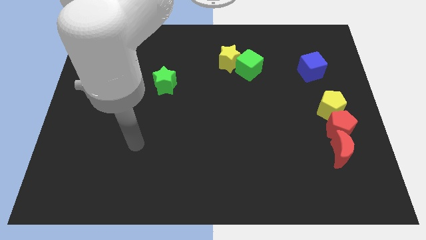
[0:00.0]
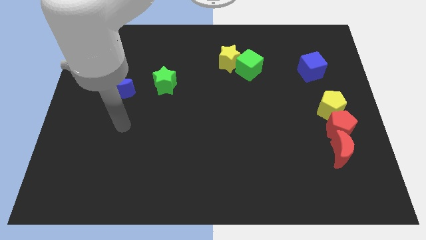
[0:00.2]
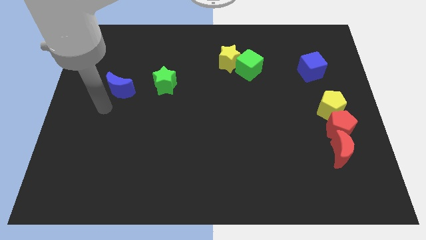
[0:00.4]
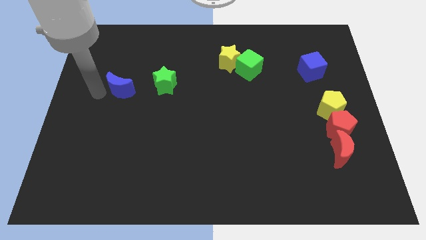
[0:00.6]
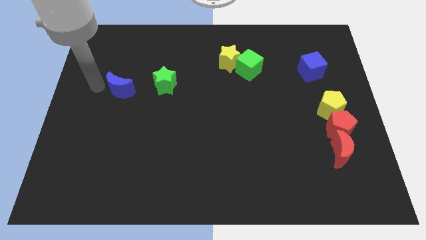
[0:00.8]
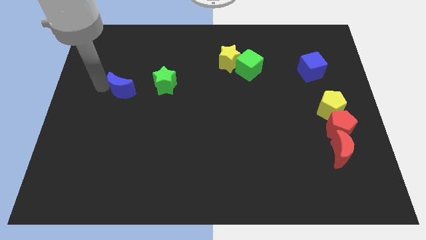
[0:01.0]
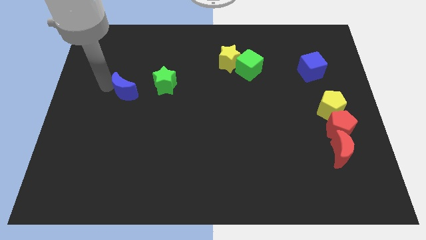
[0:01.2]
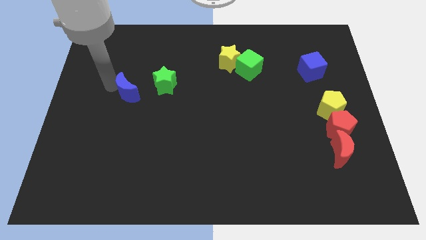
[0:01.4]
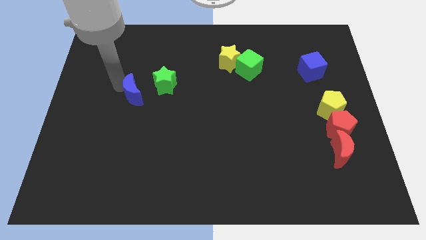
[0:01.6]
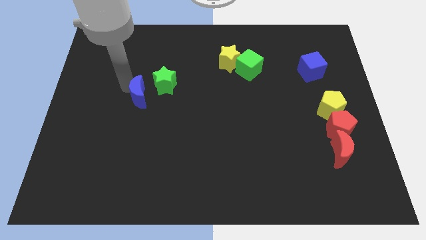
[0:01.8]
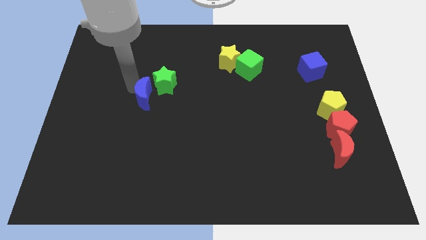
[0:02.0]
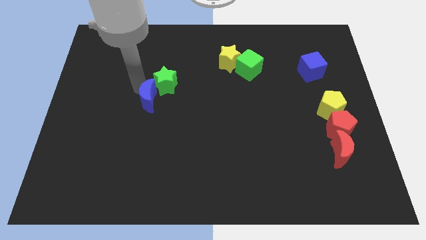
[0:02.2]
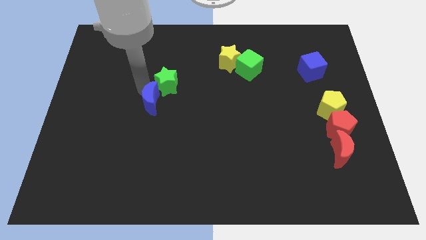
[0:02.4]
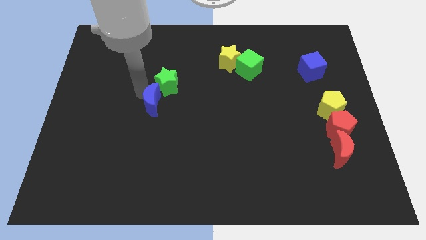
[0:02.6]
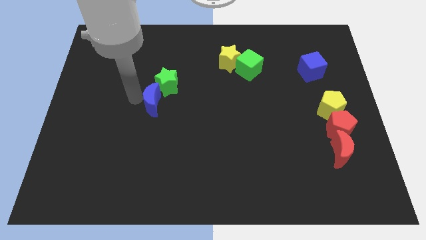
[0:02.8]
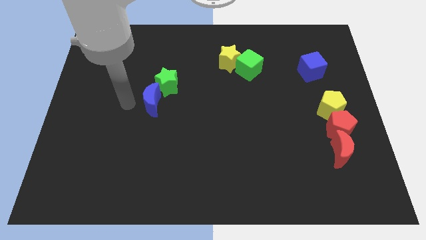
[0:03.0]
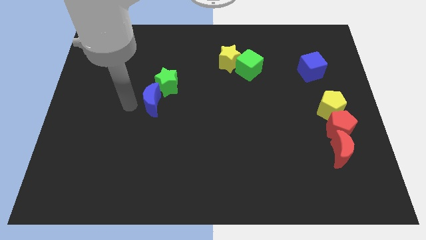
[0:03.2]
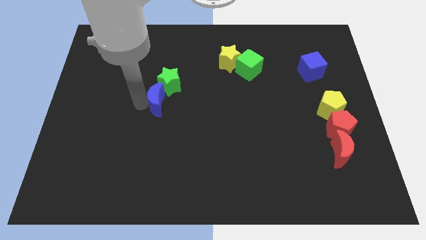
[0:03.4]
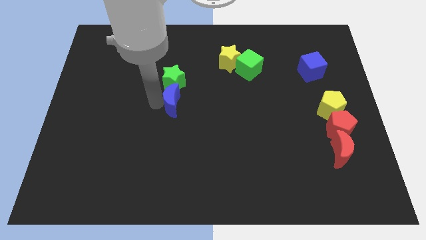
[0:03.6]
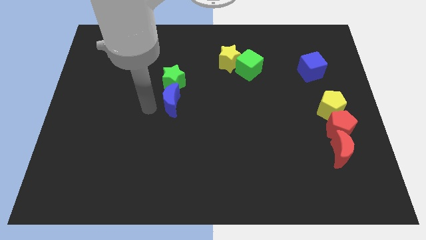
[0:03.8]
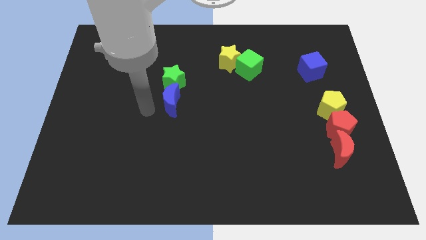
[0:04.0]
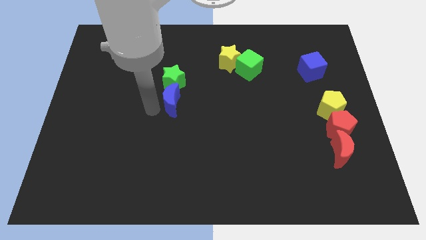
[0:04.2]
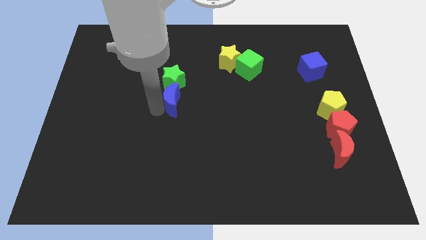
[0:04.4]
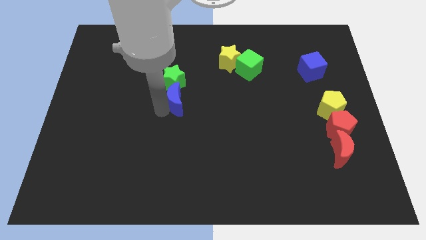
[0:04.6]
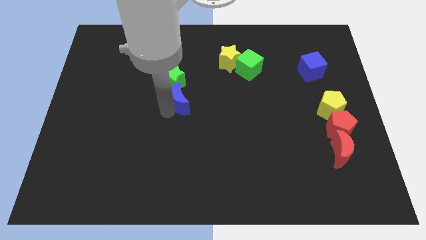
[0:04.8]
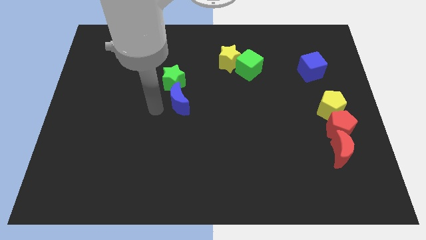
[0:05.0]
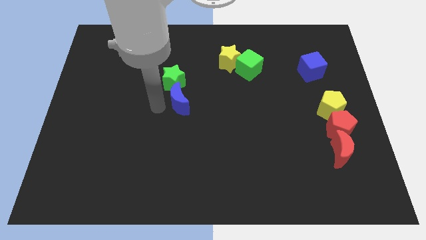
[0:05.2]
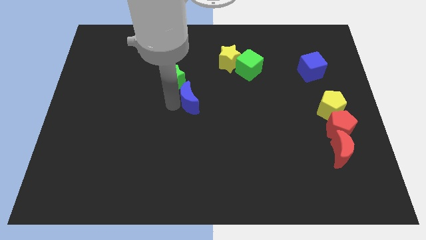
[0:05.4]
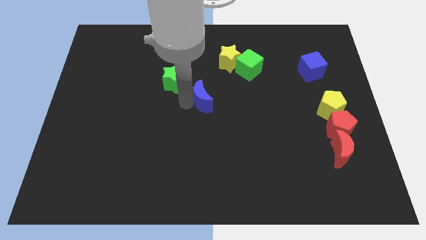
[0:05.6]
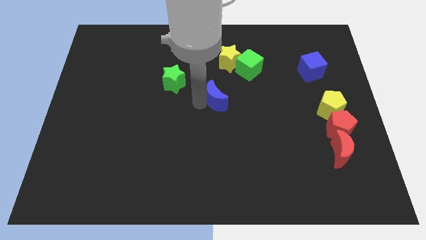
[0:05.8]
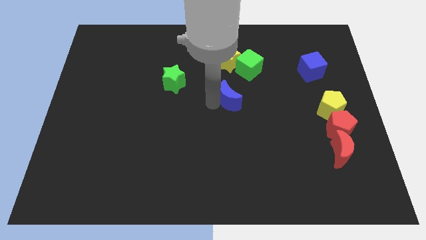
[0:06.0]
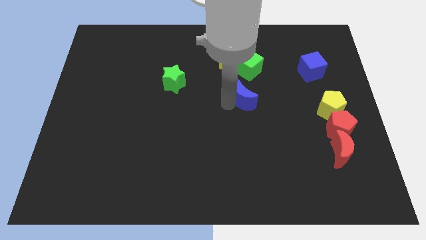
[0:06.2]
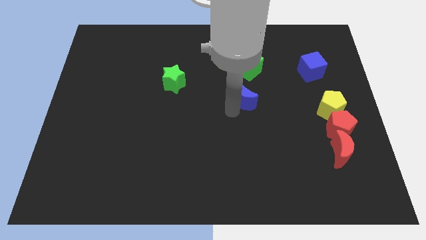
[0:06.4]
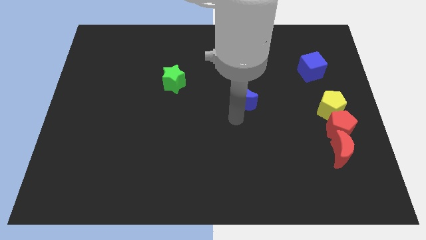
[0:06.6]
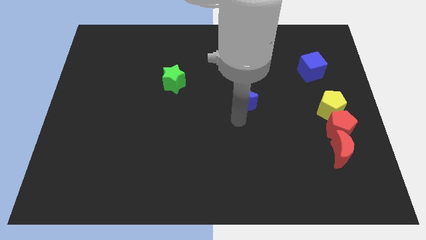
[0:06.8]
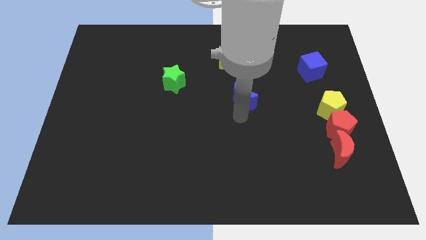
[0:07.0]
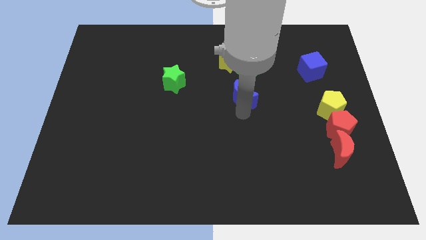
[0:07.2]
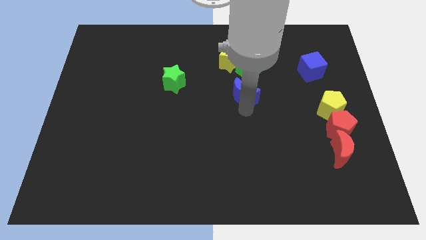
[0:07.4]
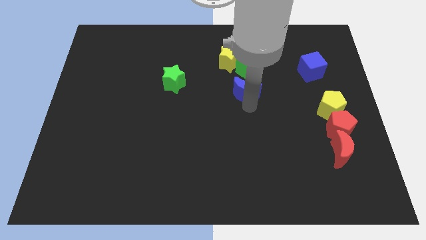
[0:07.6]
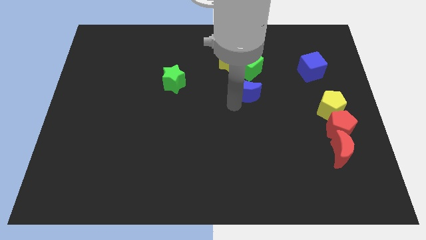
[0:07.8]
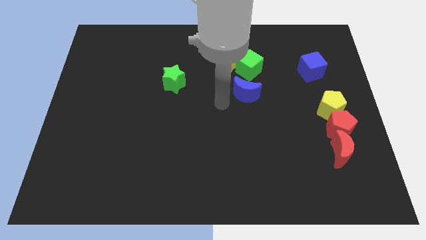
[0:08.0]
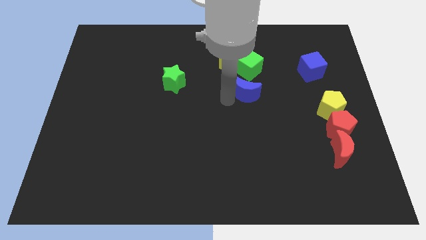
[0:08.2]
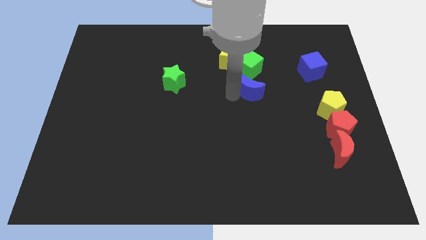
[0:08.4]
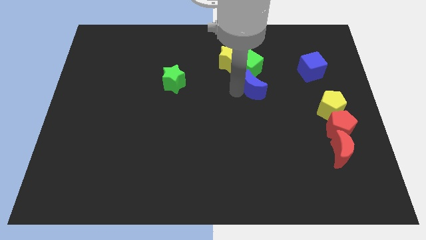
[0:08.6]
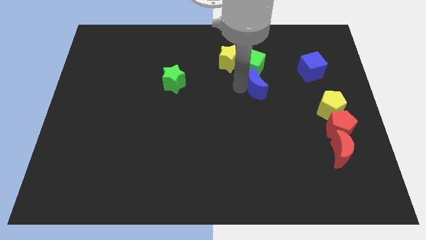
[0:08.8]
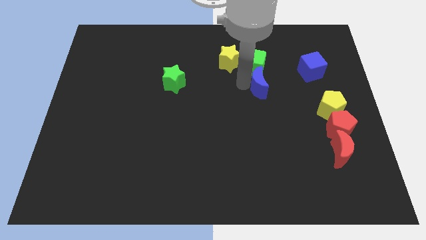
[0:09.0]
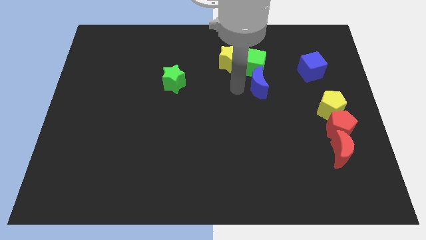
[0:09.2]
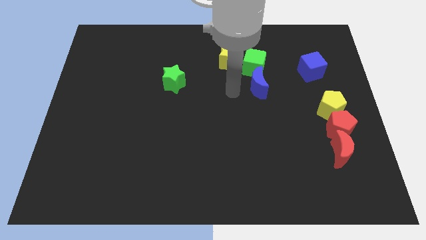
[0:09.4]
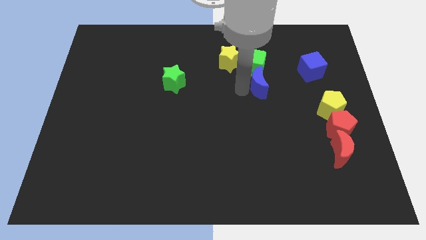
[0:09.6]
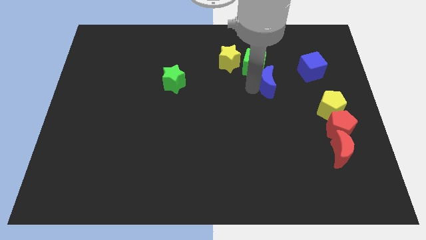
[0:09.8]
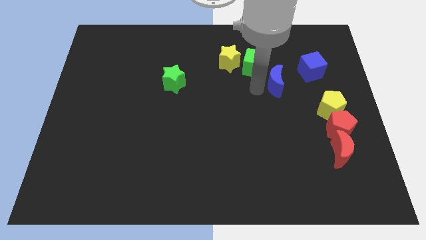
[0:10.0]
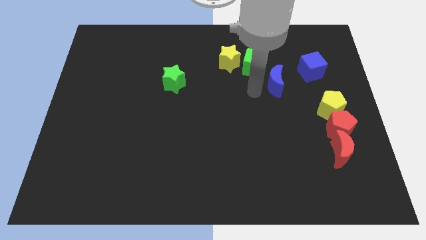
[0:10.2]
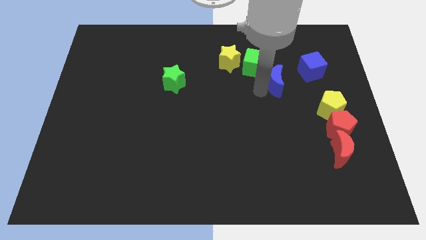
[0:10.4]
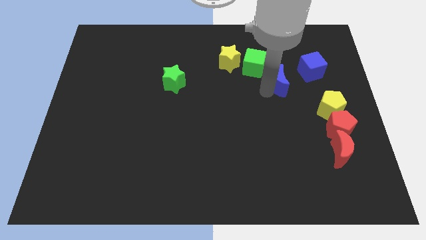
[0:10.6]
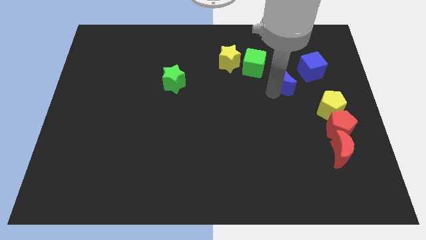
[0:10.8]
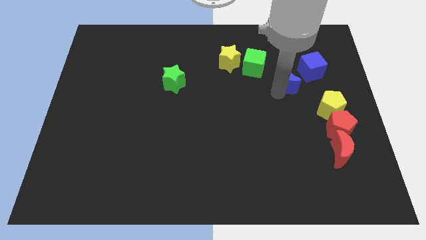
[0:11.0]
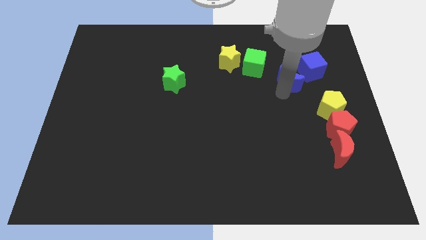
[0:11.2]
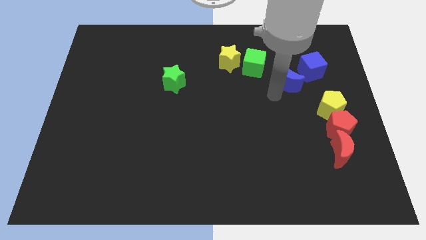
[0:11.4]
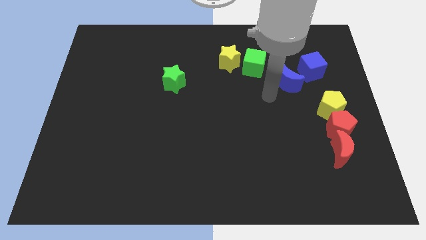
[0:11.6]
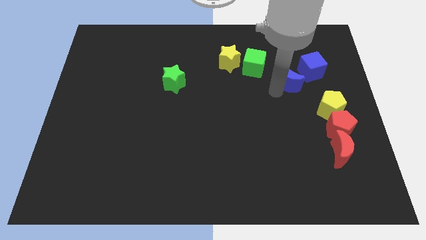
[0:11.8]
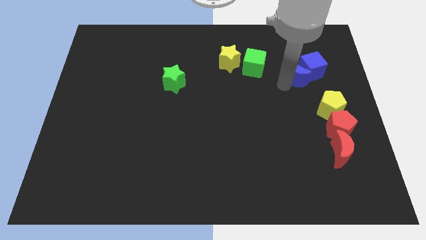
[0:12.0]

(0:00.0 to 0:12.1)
put the blue moon to the blue cube

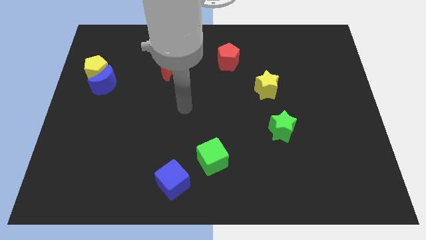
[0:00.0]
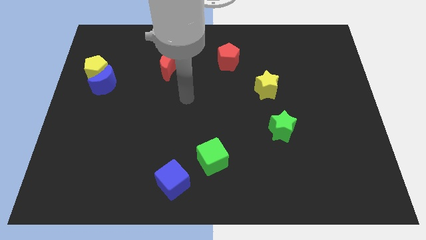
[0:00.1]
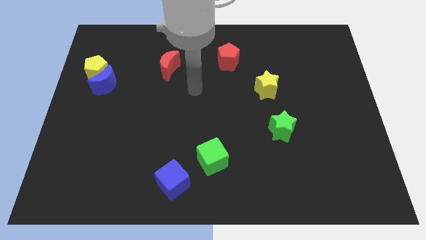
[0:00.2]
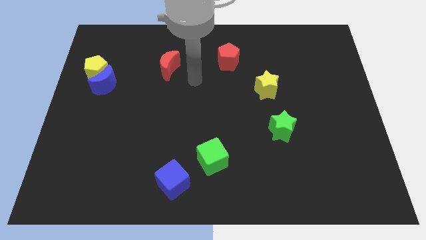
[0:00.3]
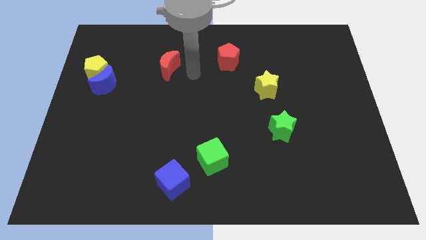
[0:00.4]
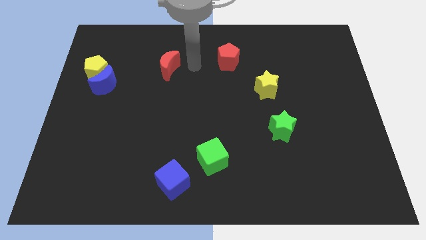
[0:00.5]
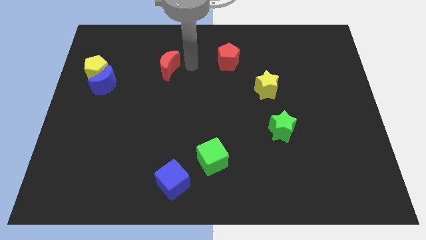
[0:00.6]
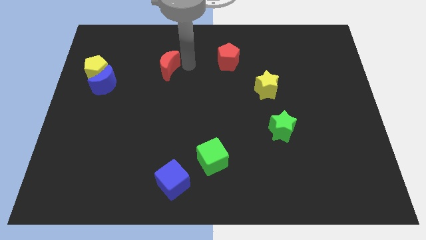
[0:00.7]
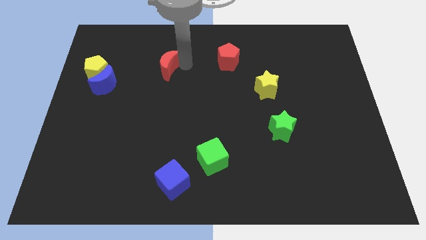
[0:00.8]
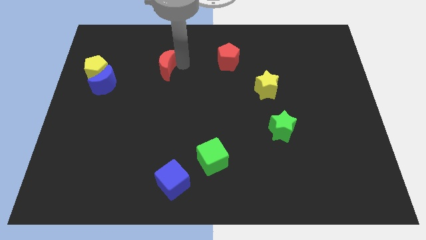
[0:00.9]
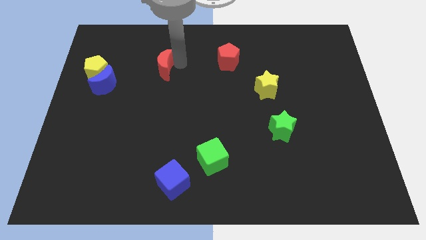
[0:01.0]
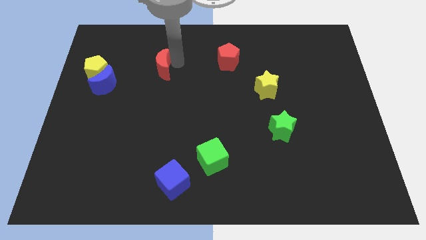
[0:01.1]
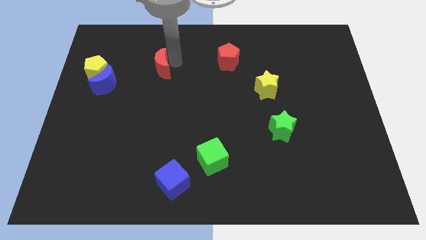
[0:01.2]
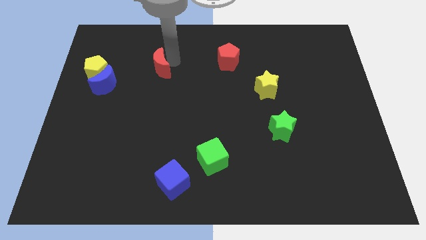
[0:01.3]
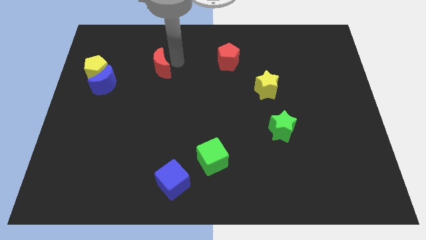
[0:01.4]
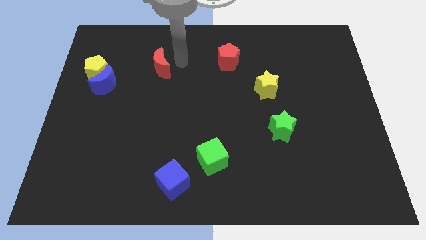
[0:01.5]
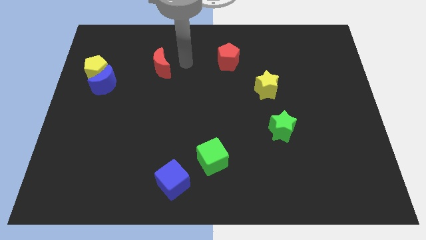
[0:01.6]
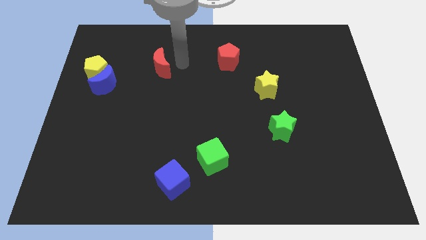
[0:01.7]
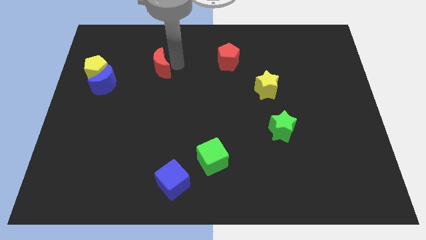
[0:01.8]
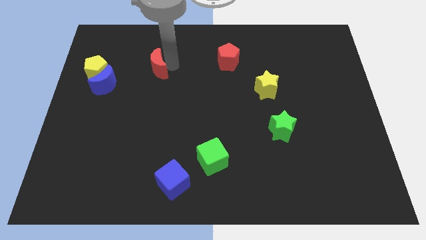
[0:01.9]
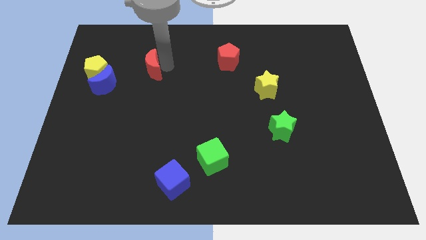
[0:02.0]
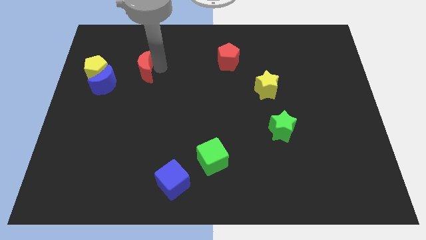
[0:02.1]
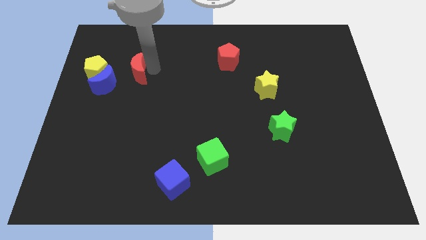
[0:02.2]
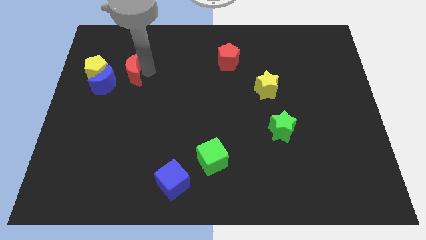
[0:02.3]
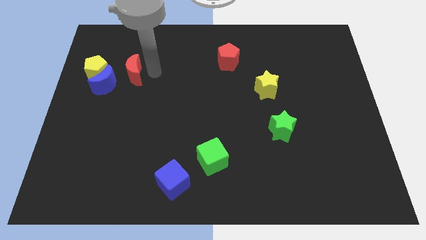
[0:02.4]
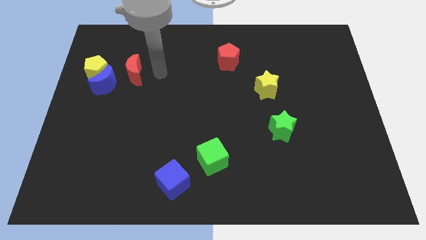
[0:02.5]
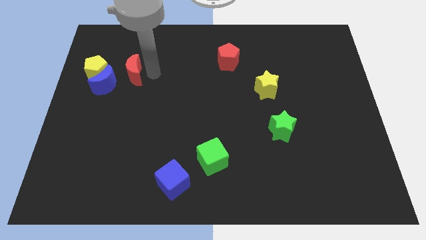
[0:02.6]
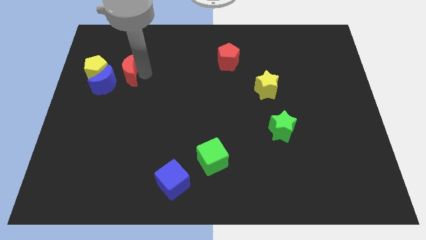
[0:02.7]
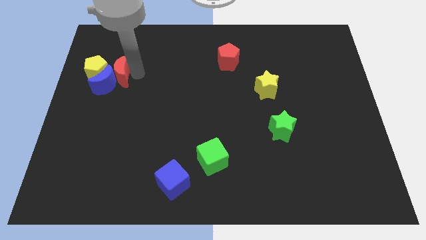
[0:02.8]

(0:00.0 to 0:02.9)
move the red moon next to the yellow pentagon
